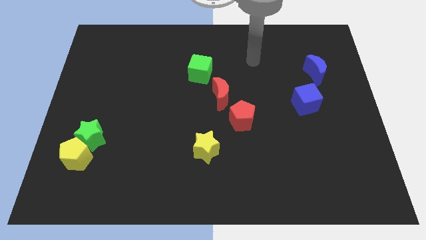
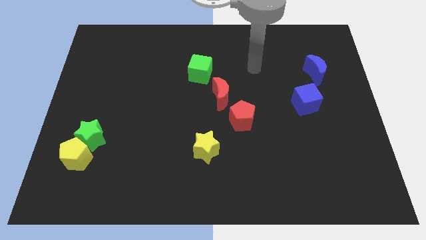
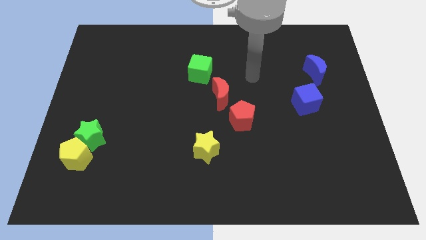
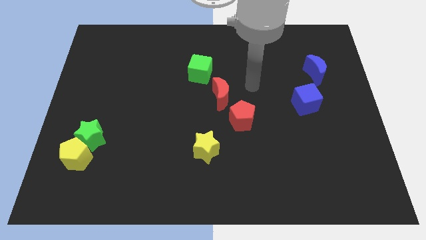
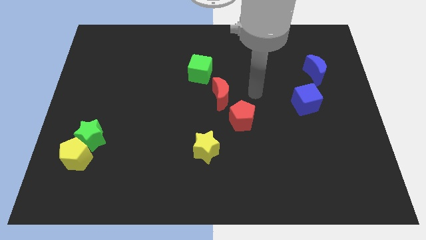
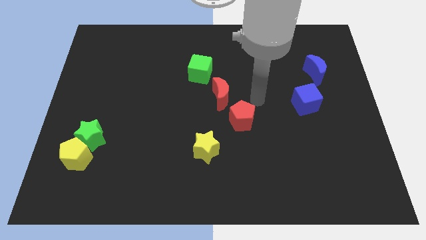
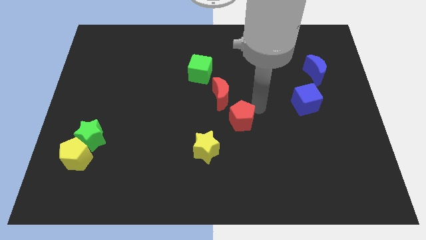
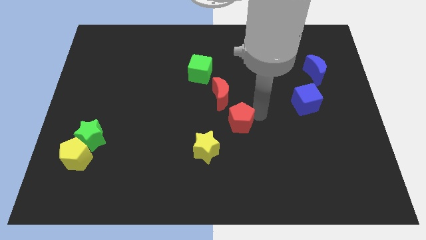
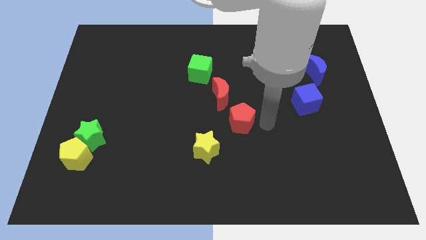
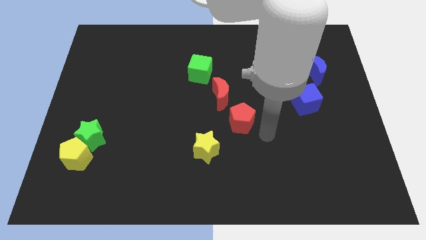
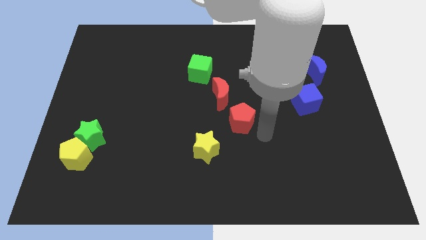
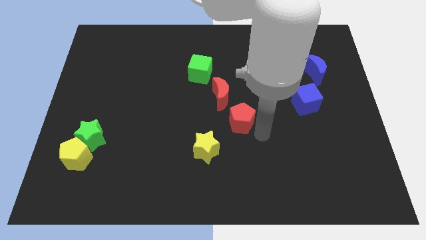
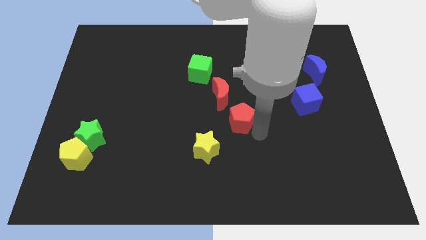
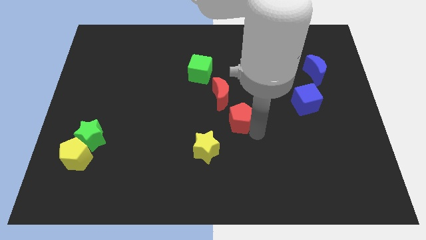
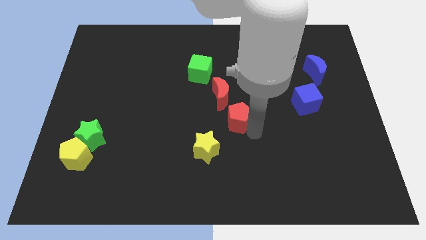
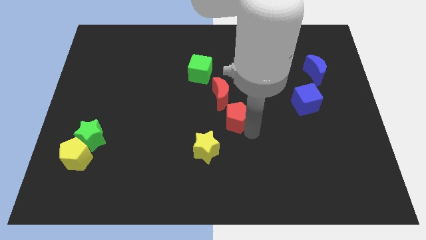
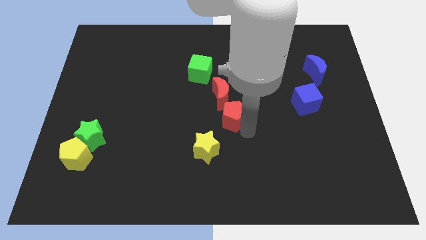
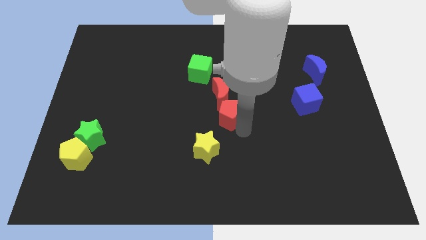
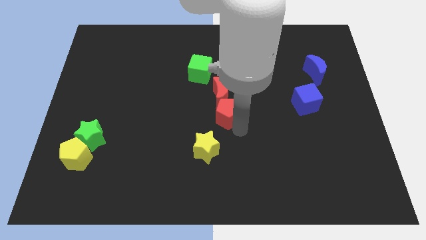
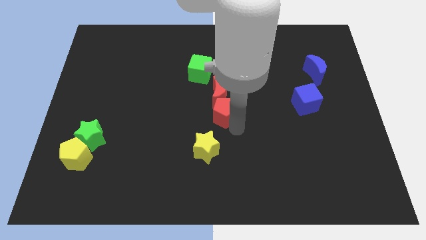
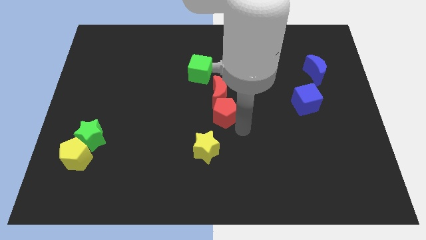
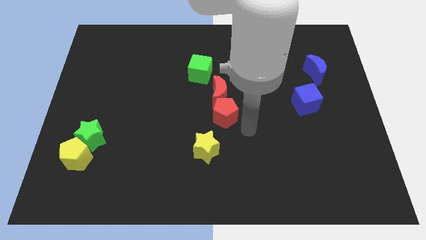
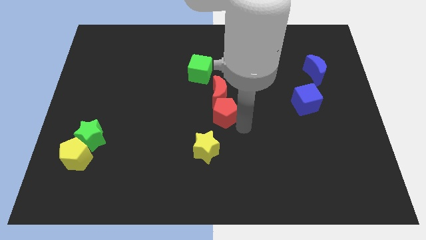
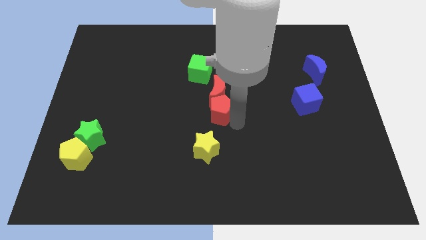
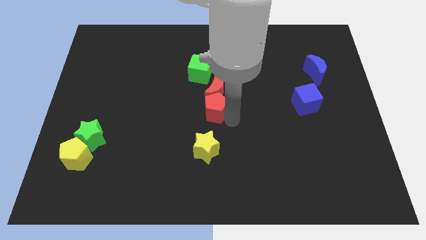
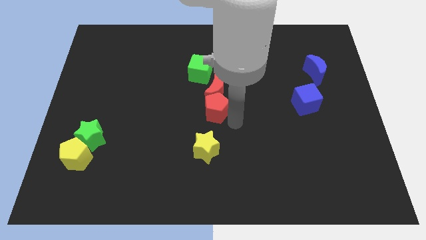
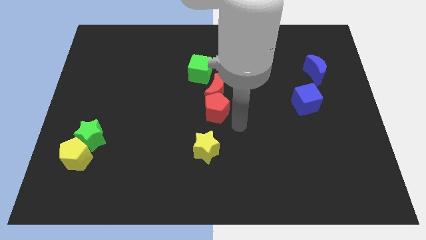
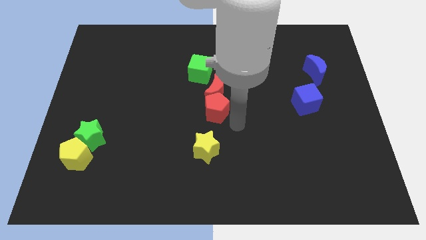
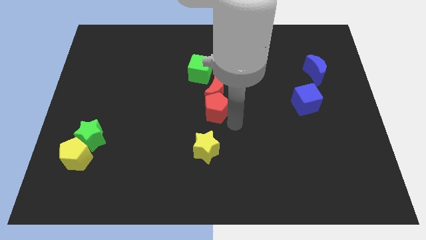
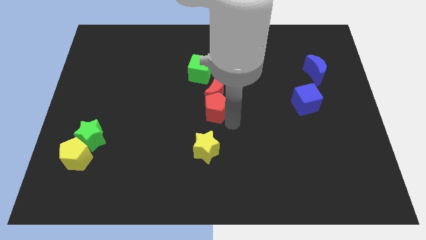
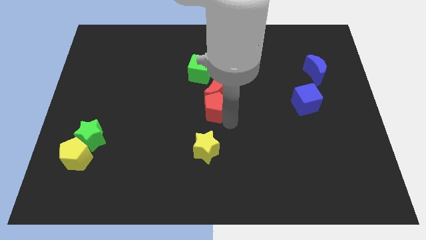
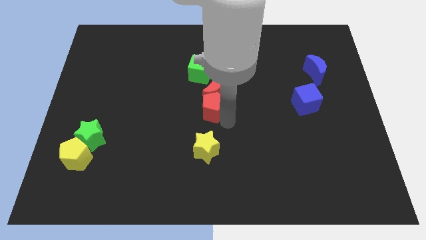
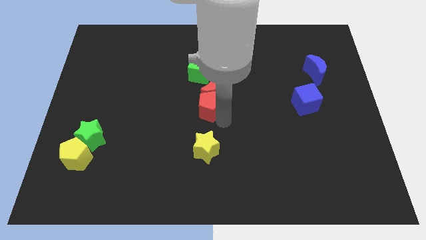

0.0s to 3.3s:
slightly push the red pentagon upwards and to the left

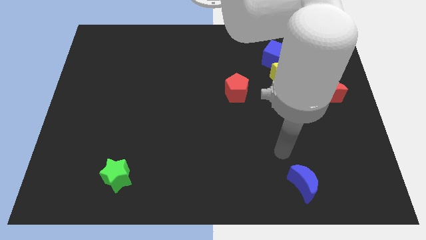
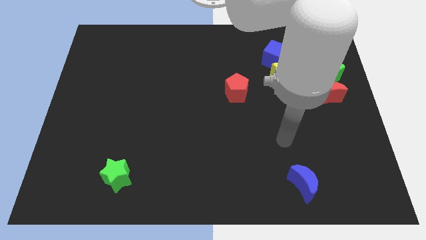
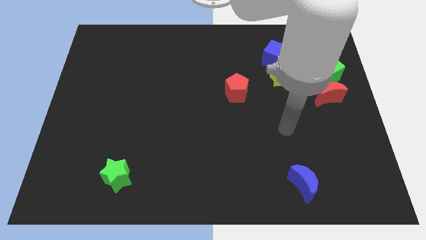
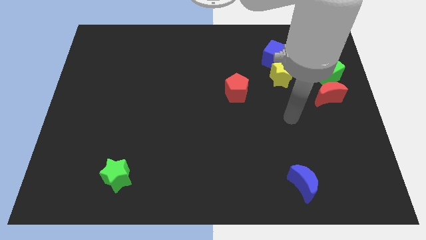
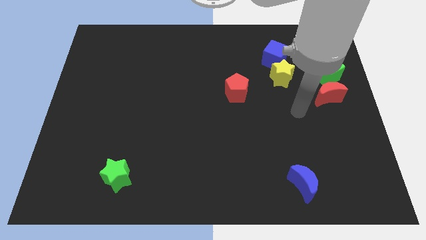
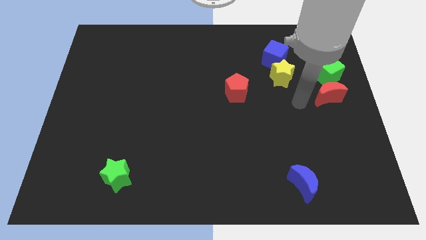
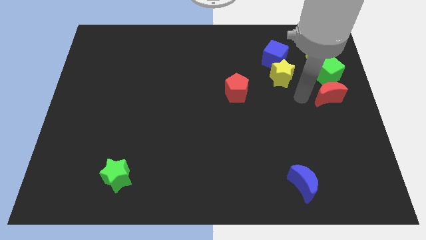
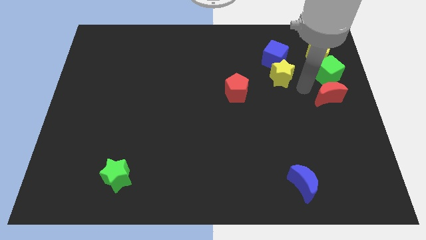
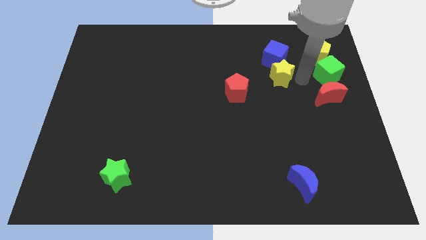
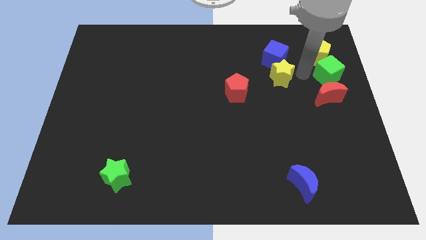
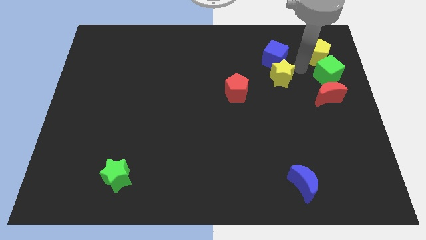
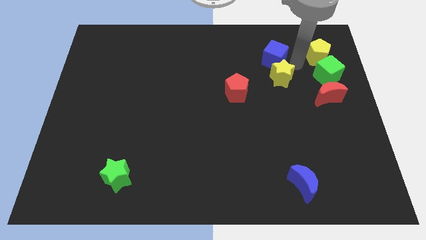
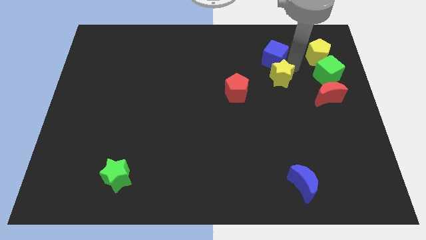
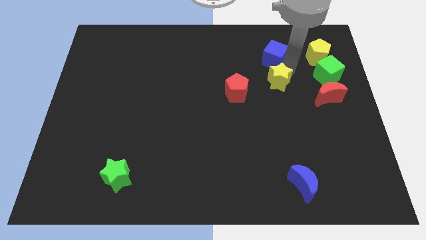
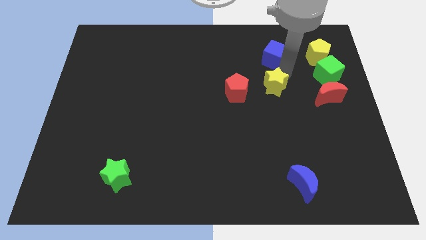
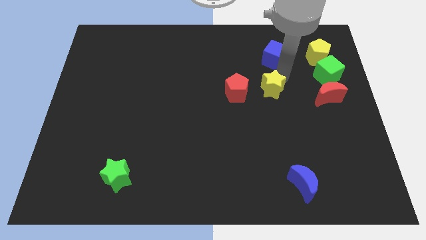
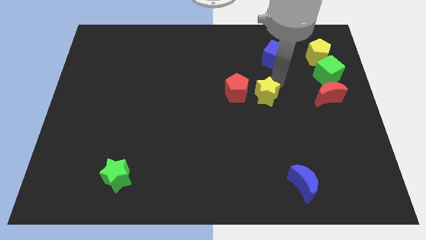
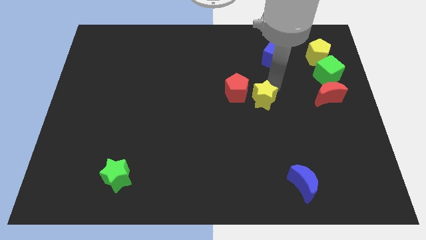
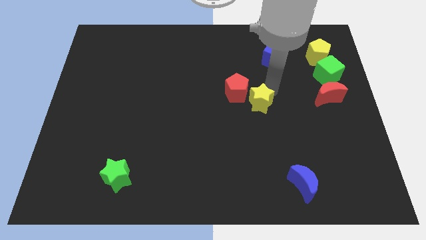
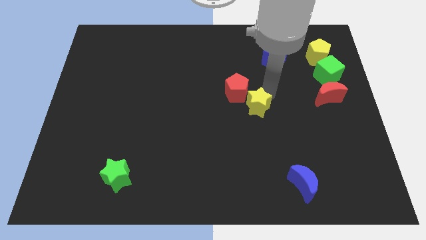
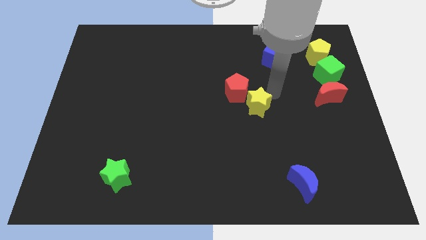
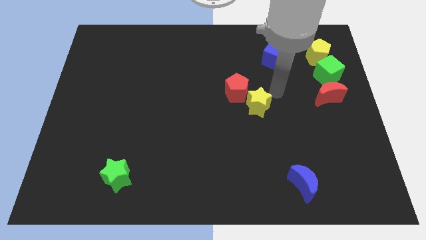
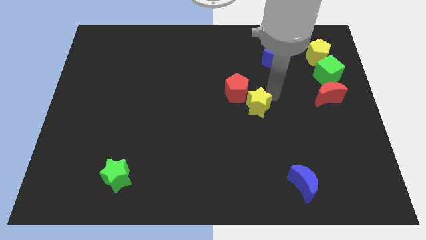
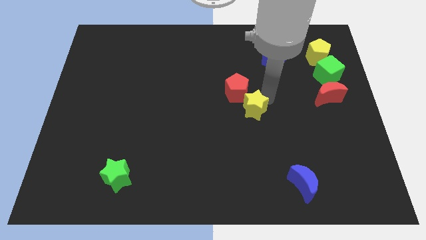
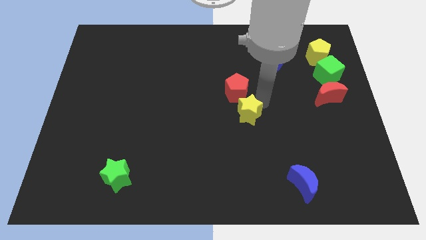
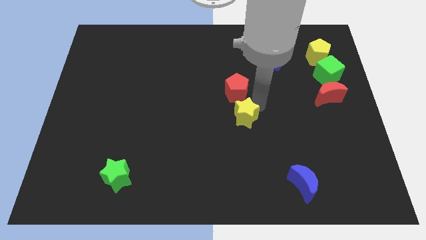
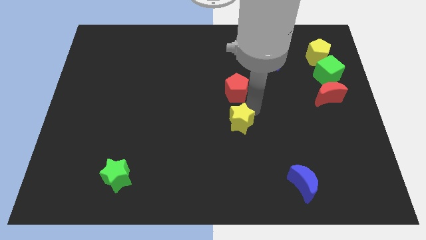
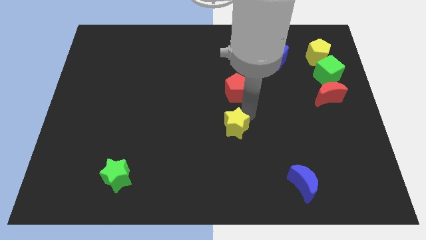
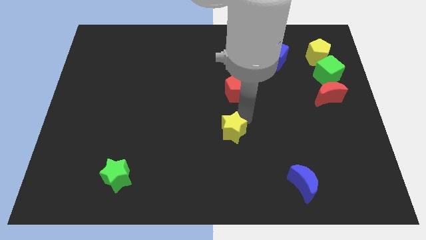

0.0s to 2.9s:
move the yellow star diagonally downwards and left

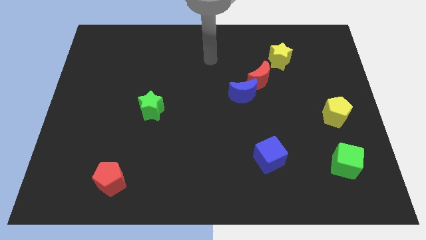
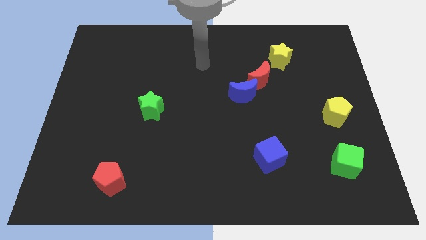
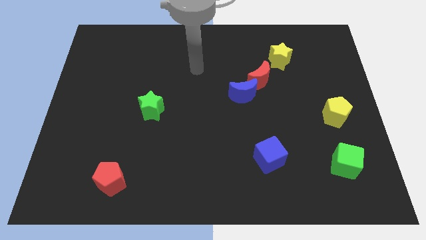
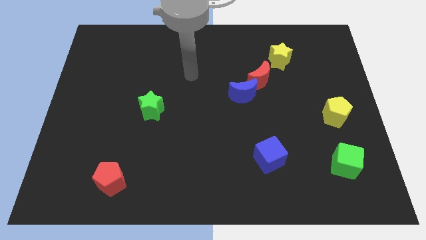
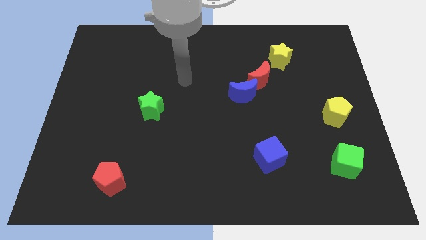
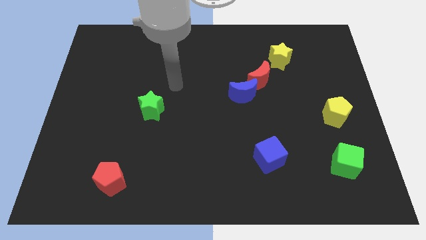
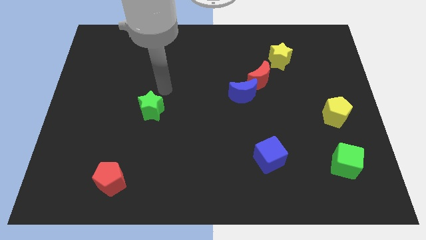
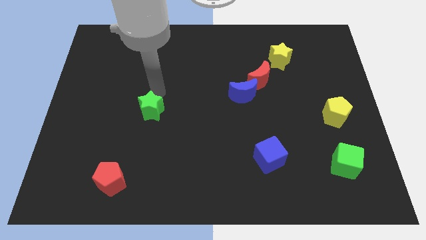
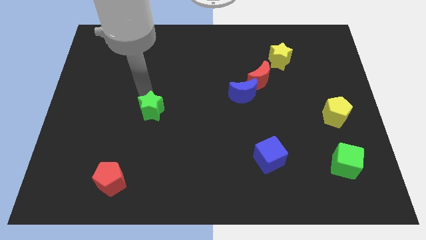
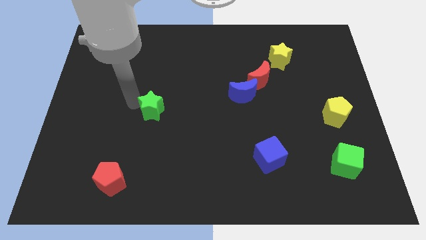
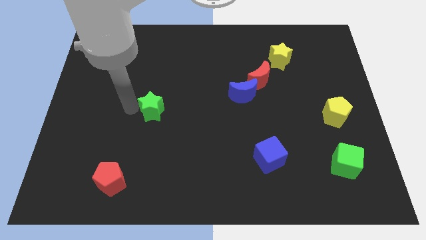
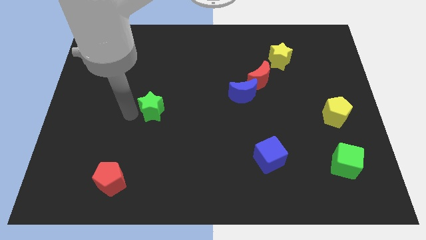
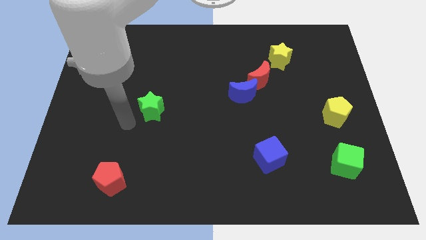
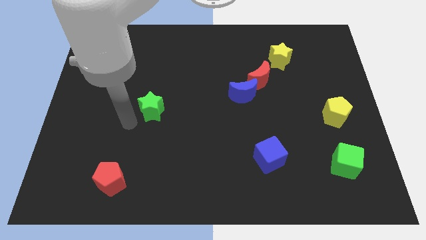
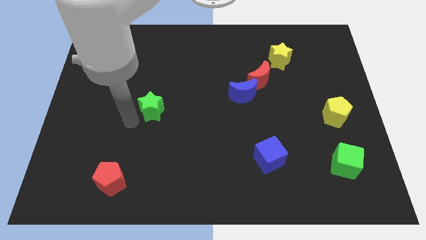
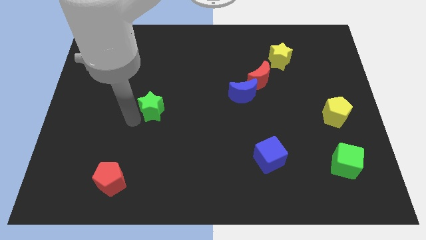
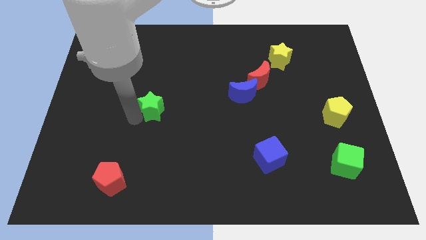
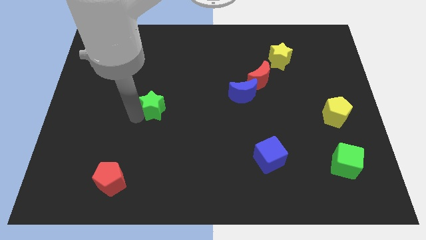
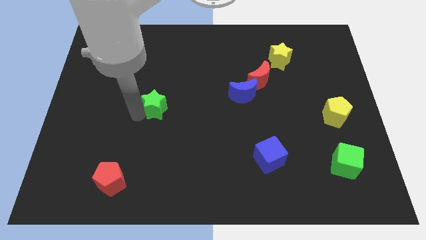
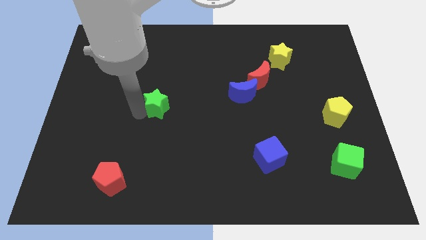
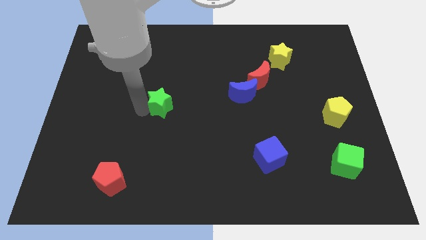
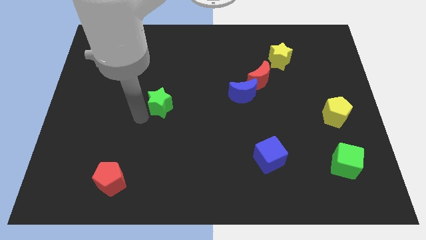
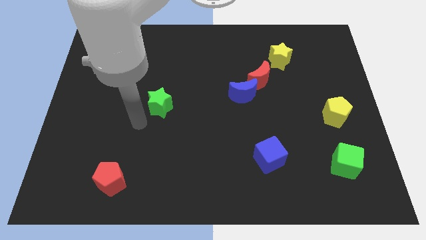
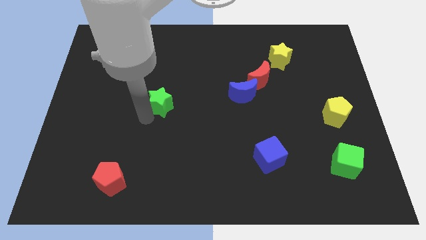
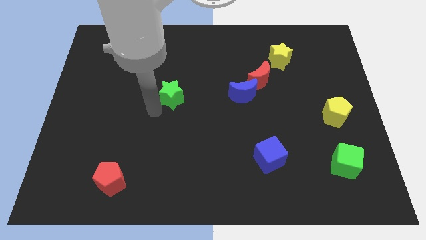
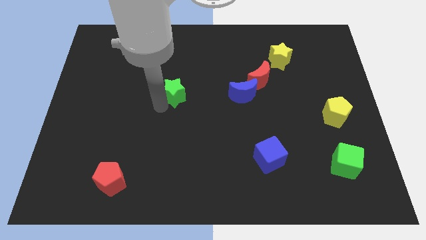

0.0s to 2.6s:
slightly push the green star upwards and to the right
